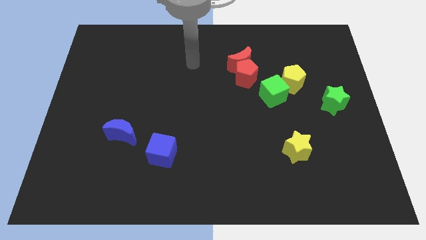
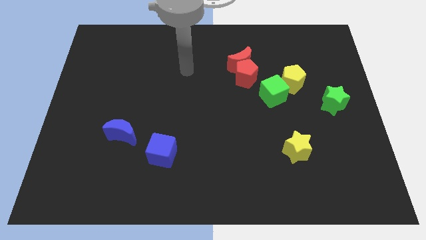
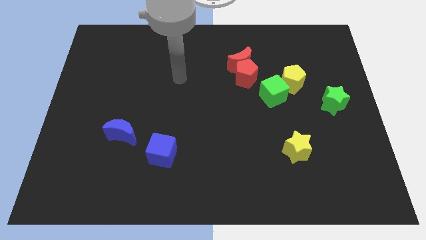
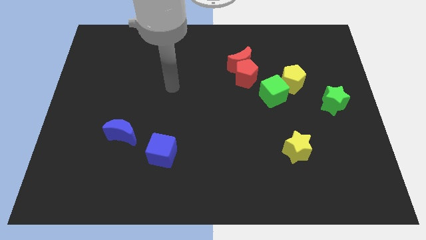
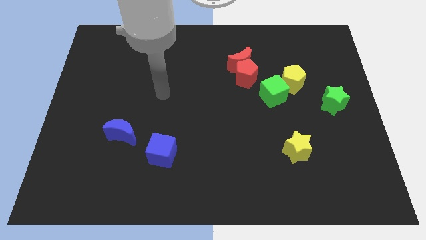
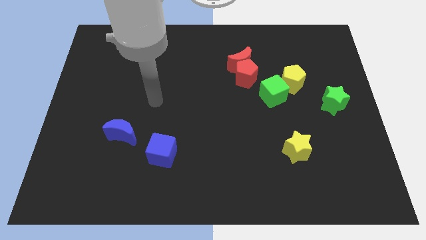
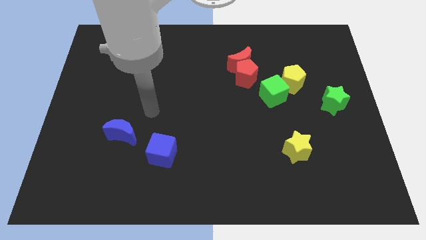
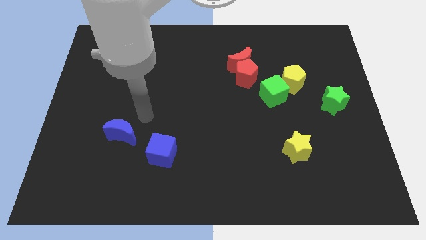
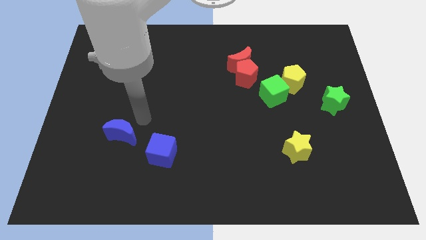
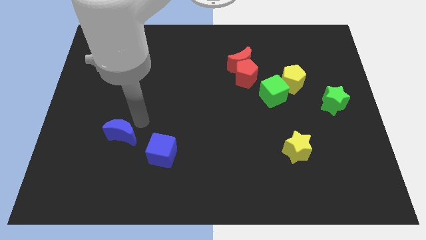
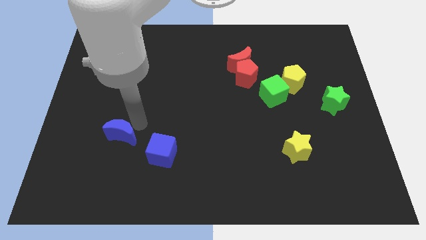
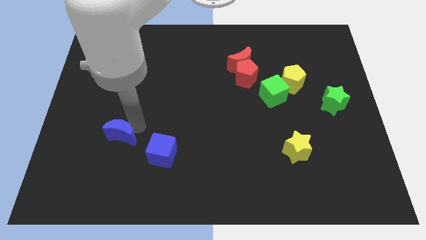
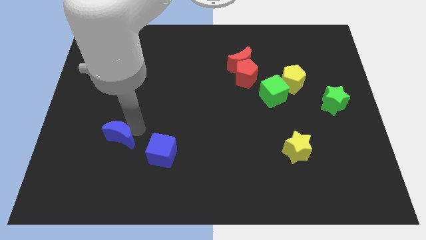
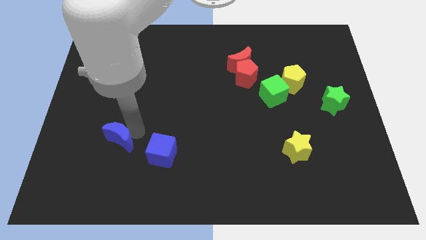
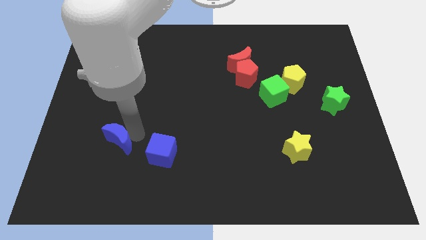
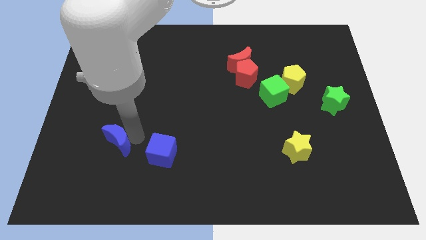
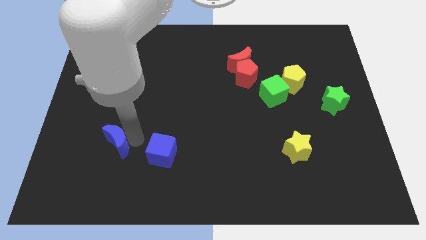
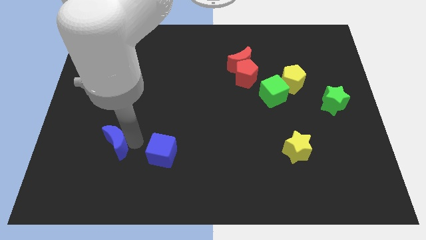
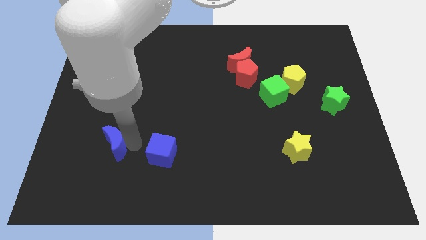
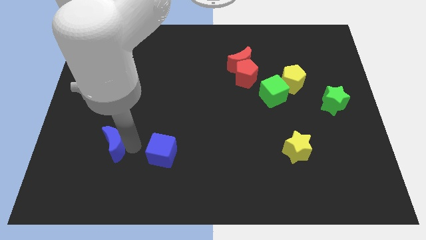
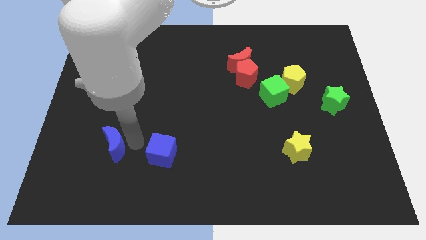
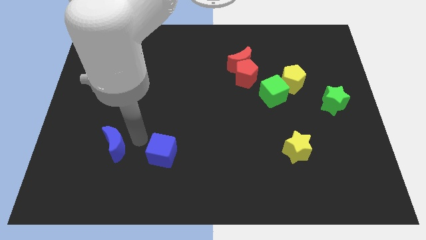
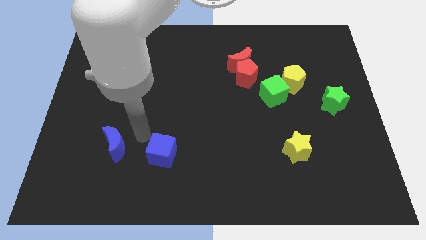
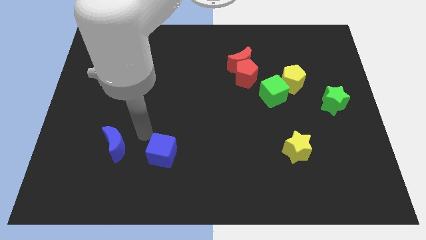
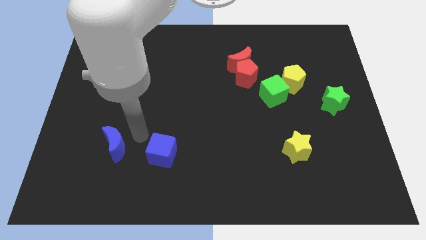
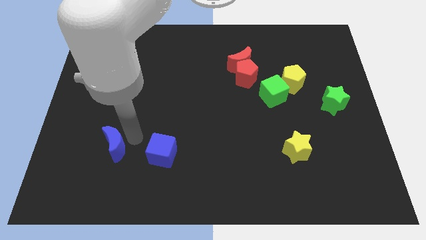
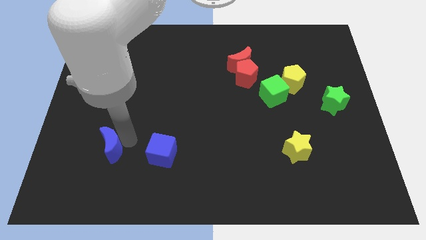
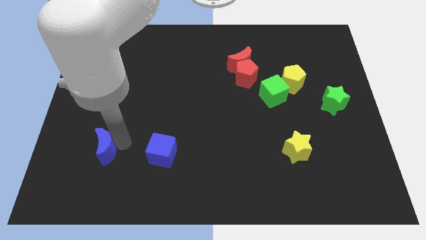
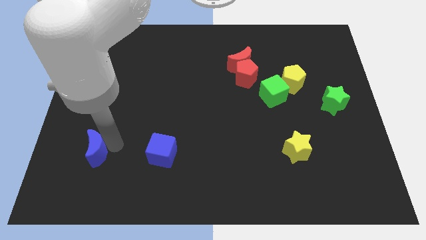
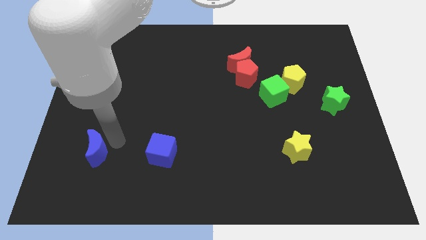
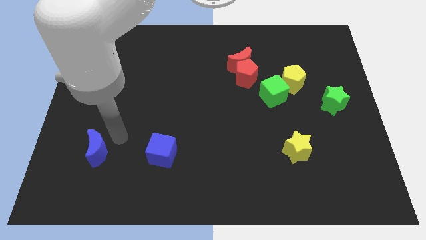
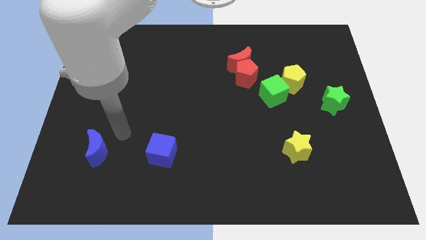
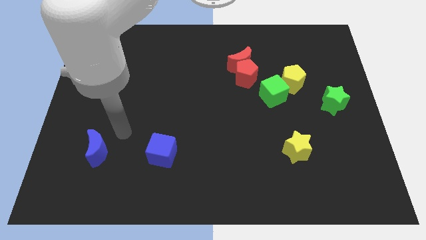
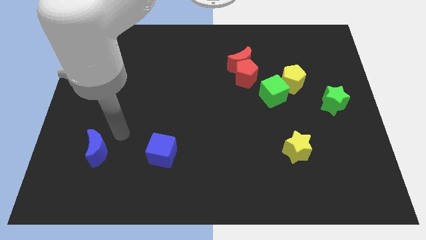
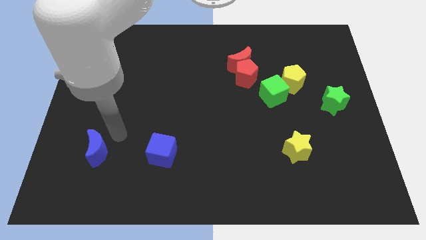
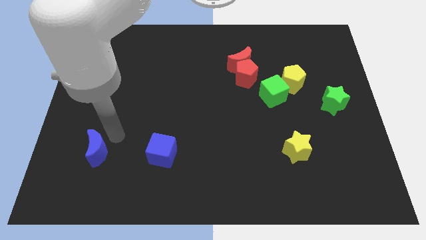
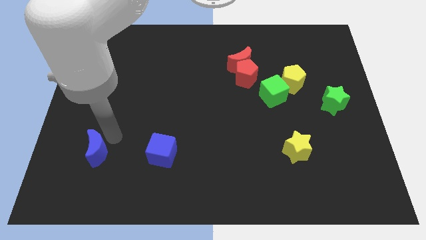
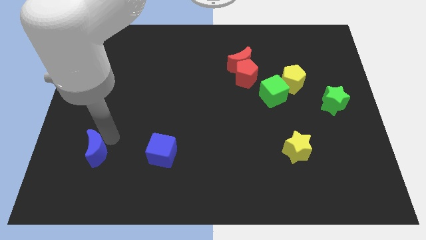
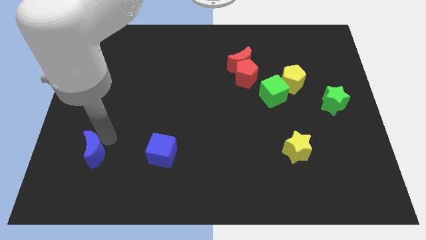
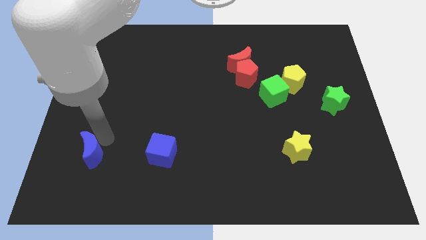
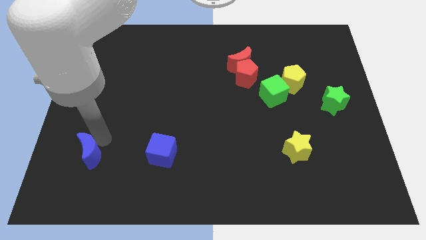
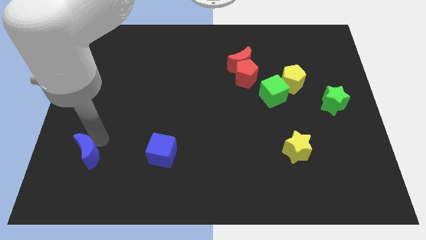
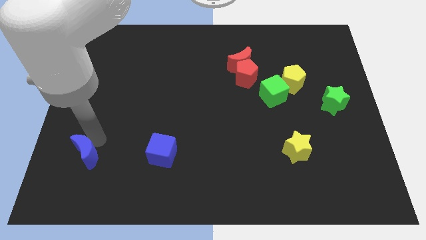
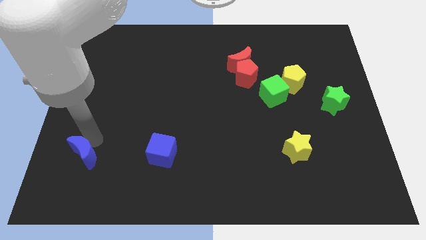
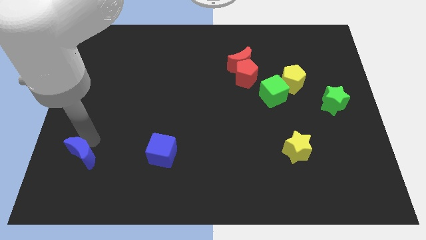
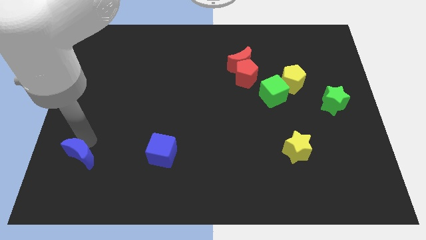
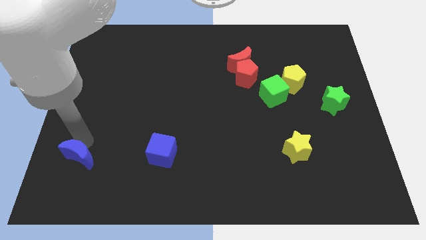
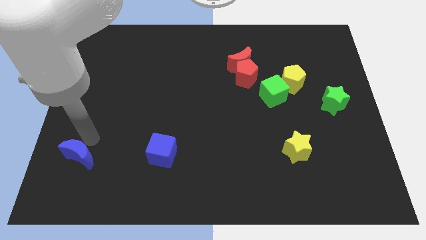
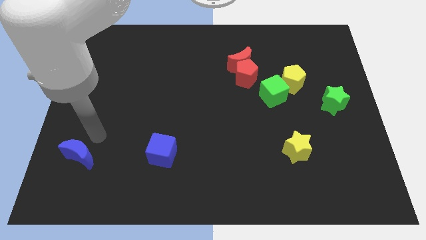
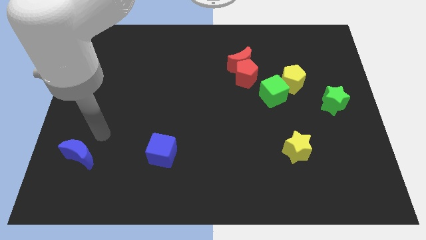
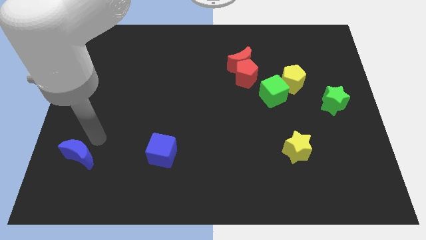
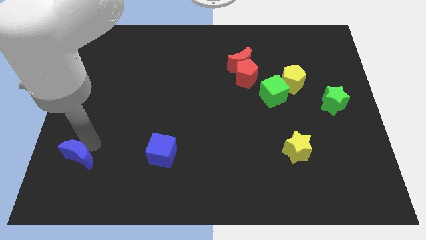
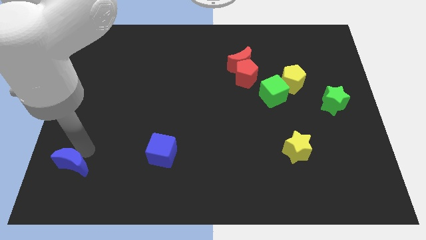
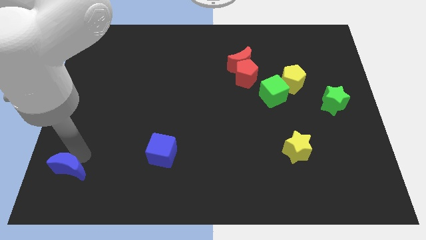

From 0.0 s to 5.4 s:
move the blue moon to the bottom left of the board

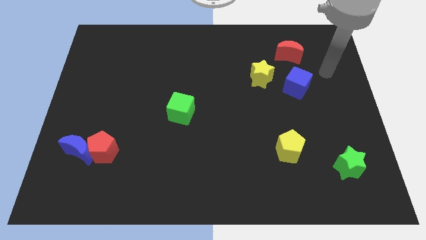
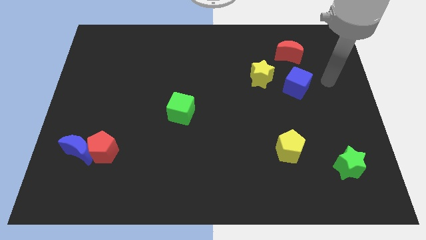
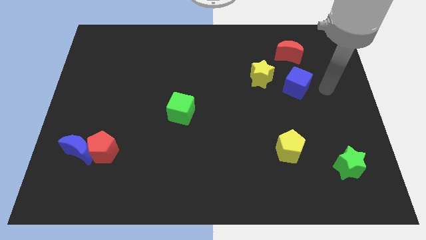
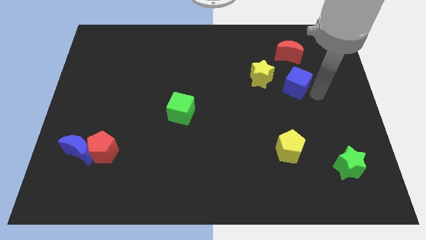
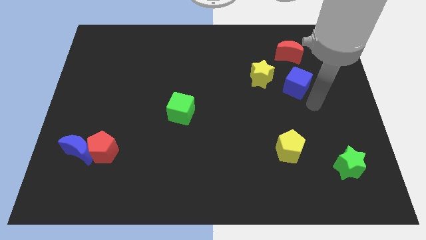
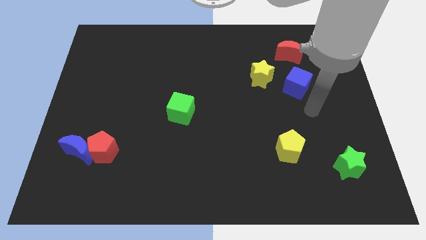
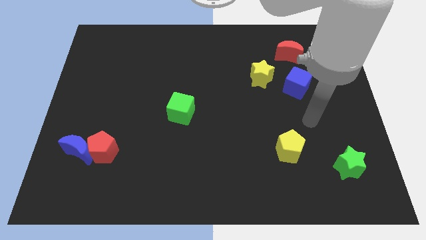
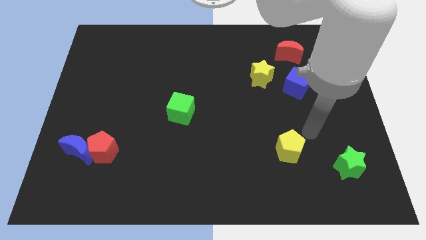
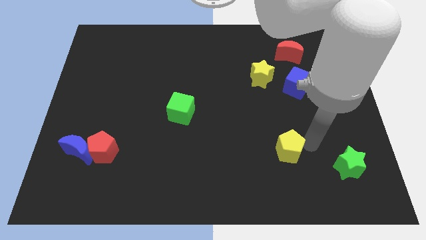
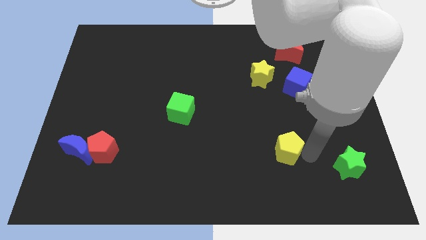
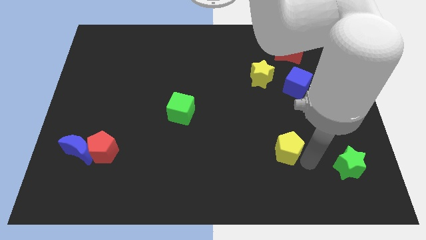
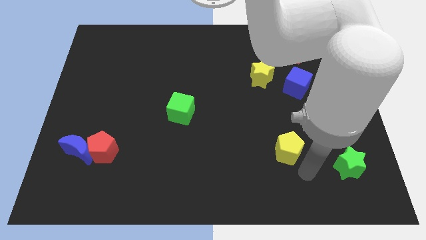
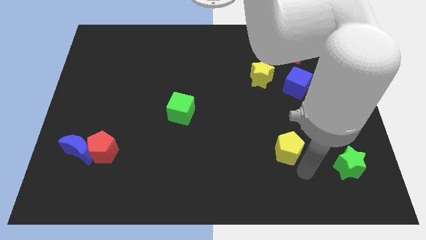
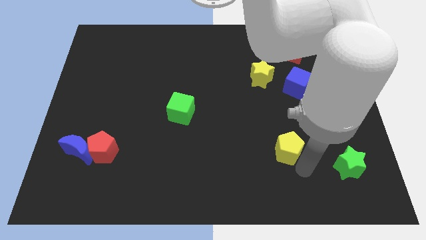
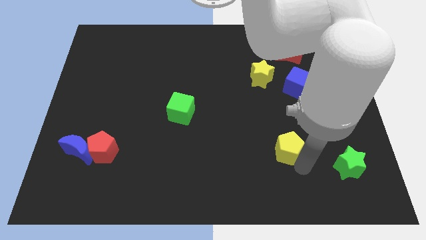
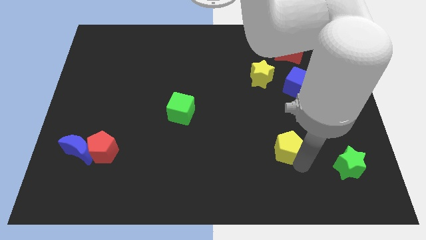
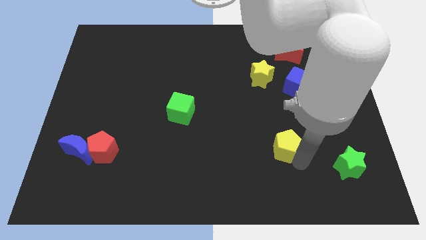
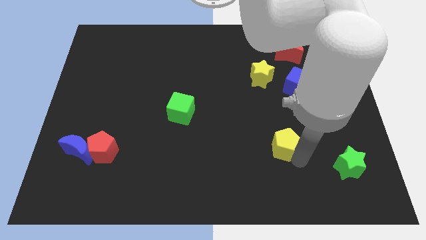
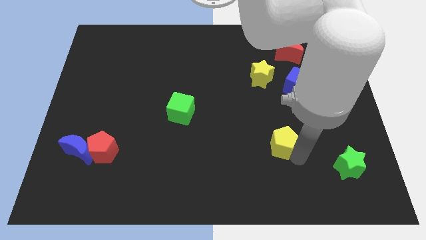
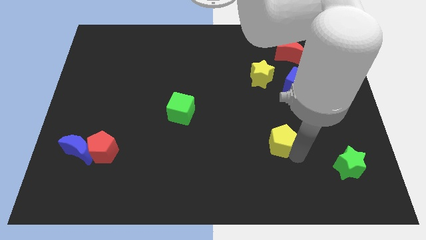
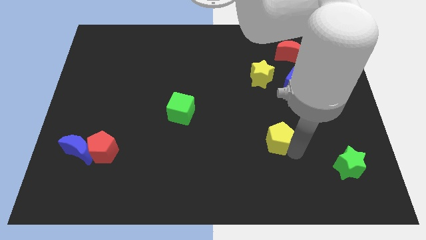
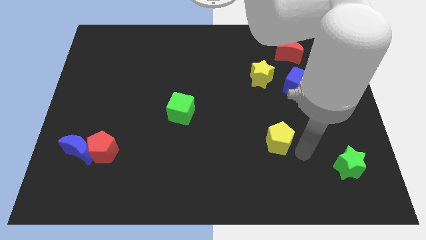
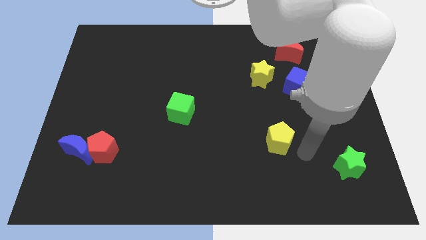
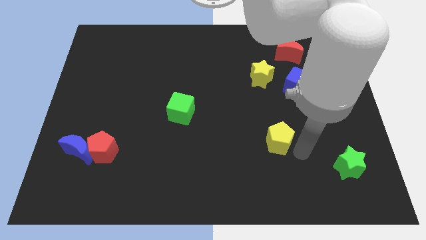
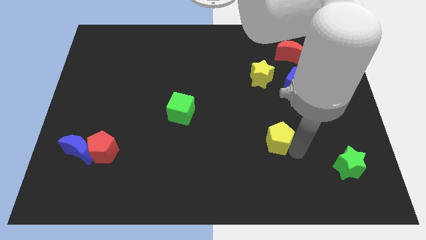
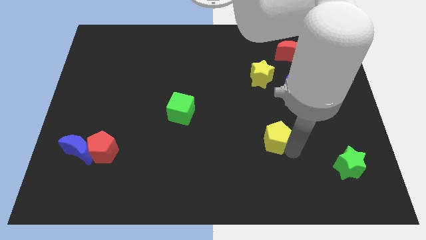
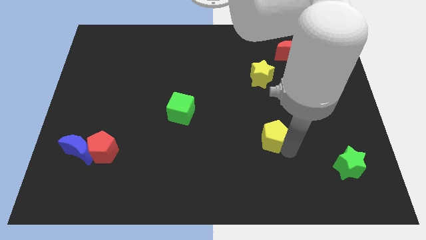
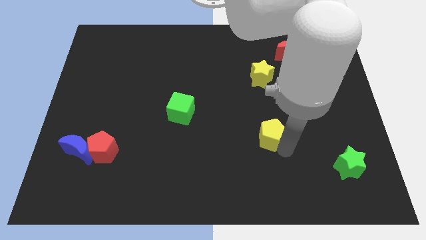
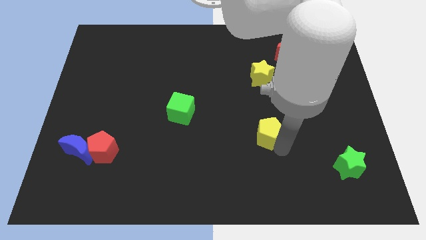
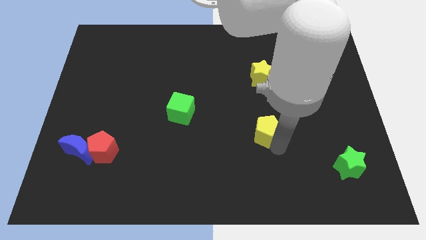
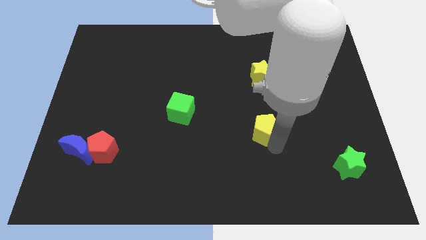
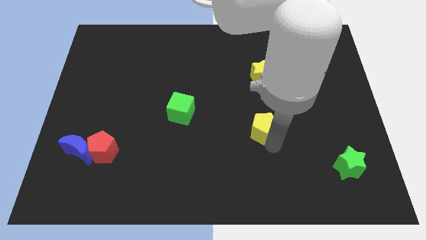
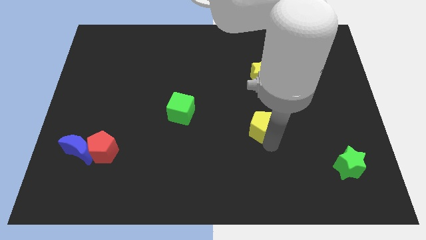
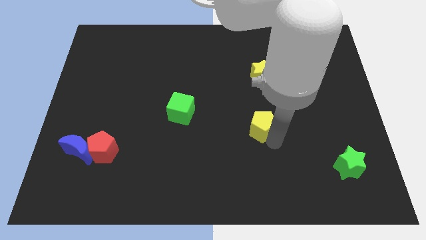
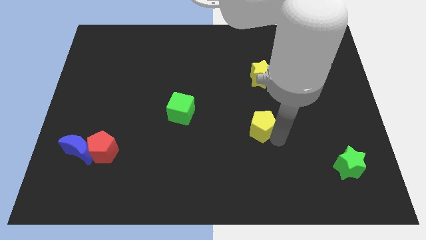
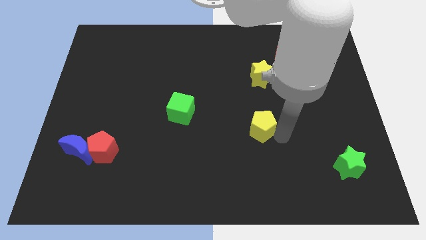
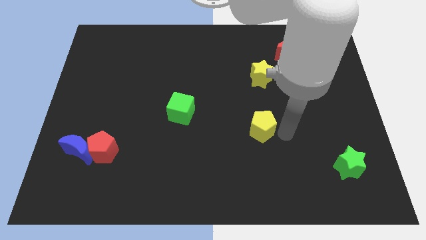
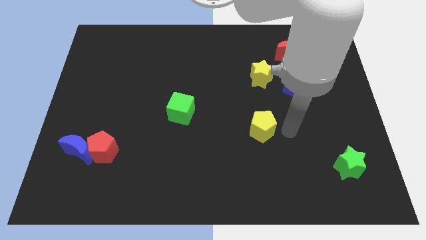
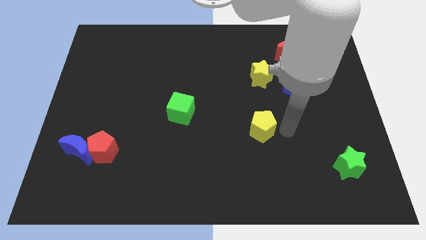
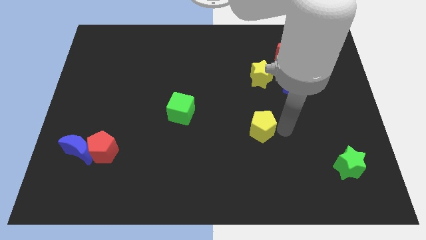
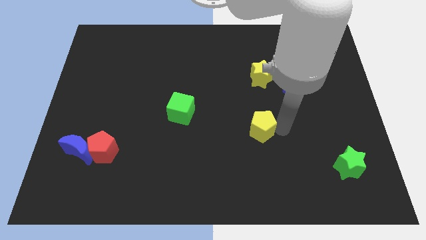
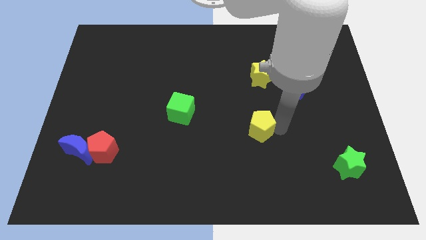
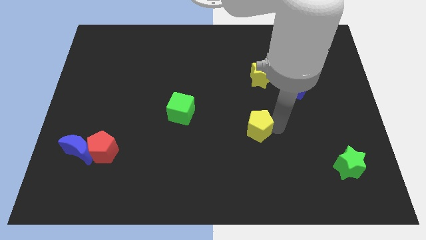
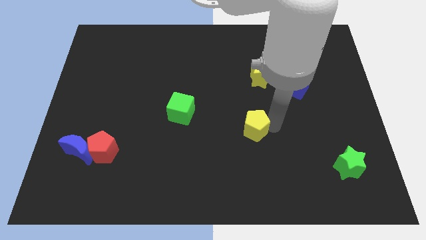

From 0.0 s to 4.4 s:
move the yellow pentagon to the center
